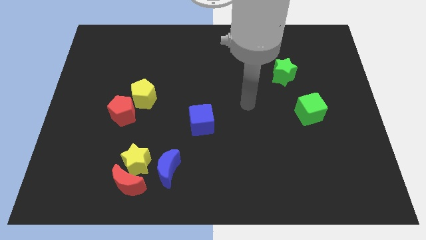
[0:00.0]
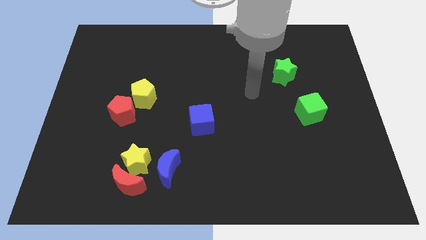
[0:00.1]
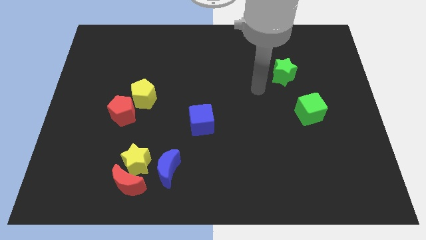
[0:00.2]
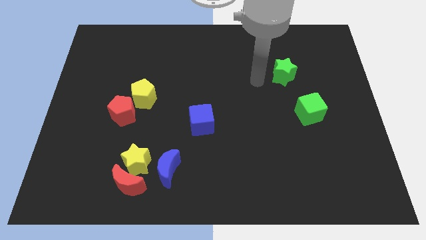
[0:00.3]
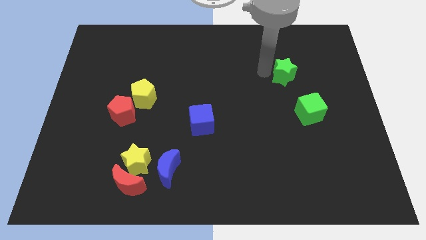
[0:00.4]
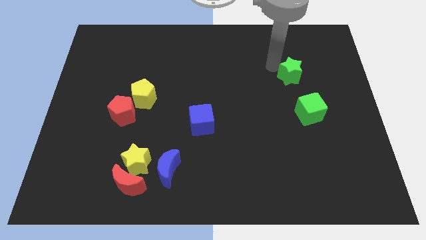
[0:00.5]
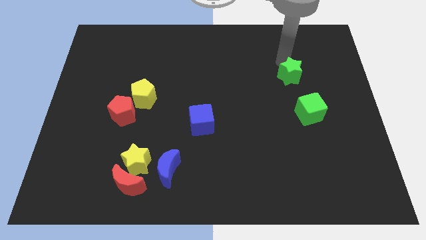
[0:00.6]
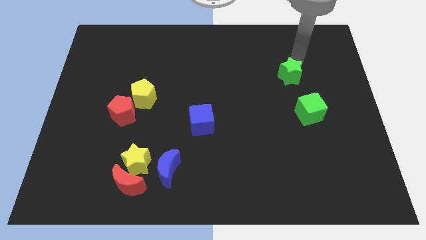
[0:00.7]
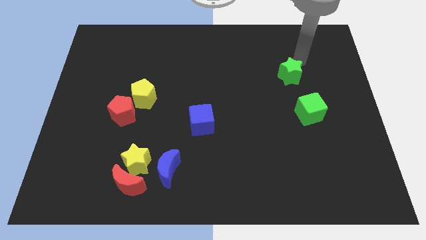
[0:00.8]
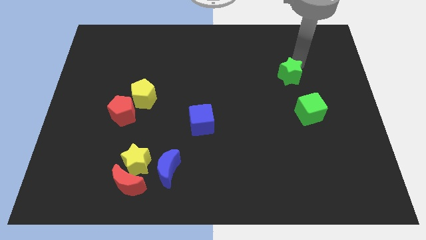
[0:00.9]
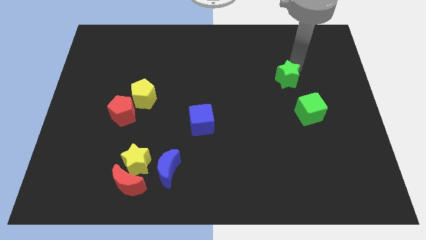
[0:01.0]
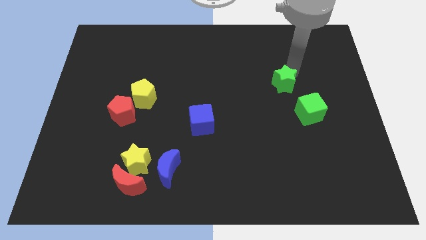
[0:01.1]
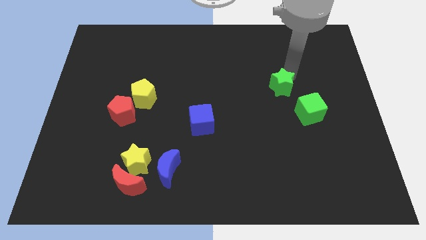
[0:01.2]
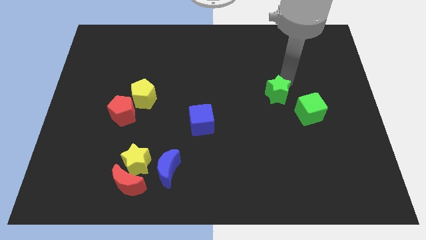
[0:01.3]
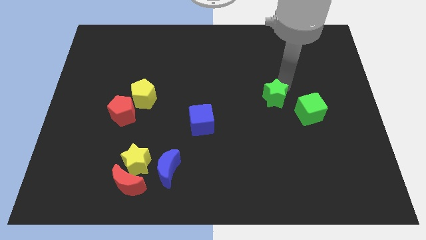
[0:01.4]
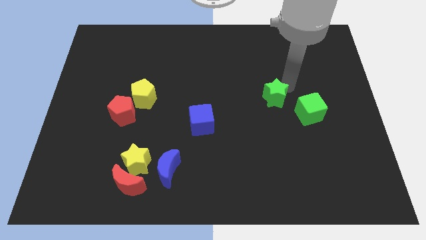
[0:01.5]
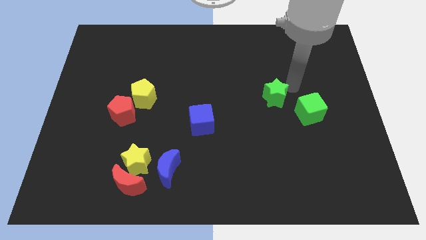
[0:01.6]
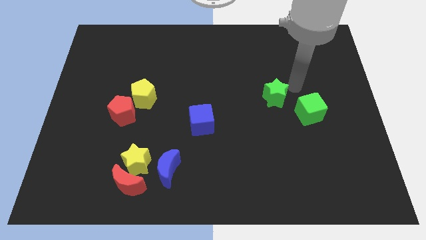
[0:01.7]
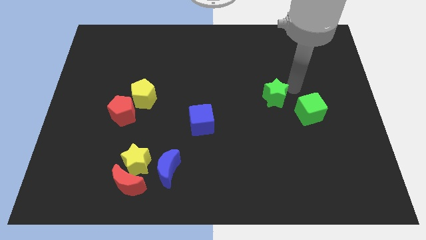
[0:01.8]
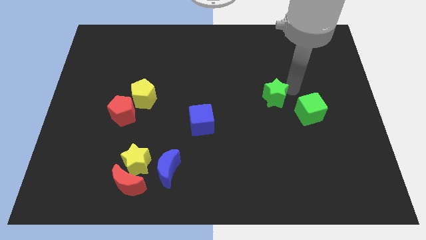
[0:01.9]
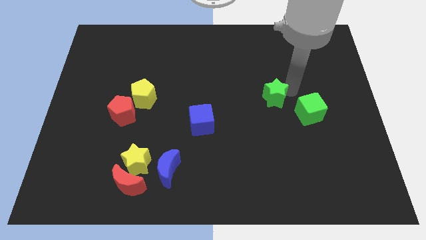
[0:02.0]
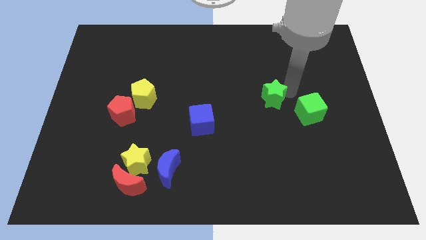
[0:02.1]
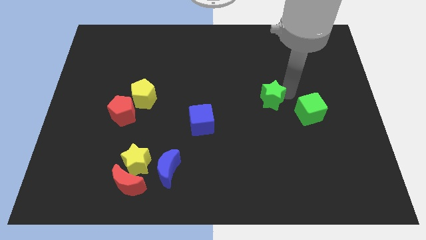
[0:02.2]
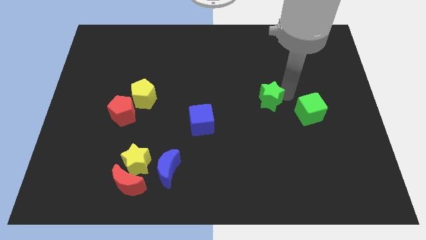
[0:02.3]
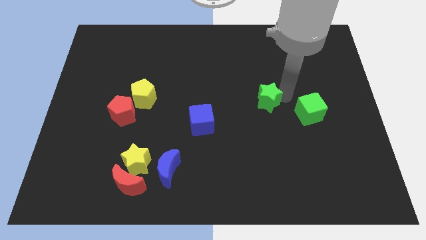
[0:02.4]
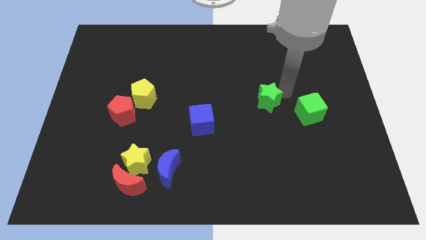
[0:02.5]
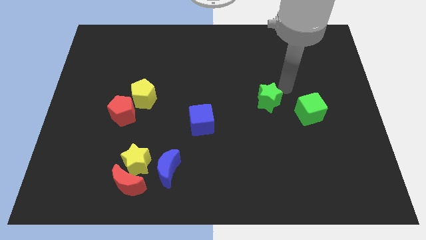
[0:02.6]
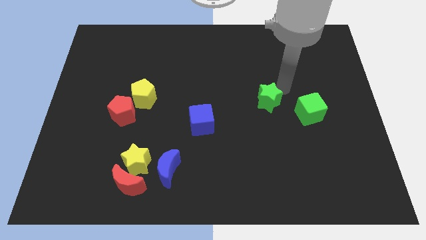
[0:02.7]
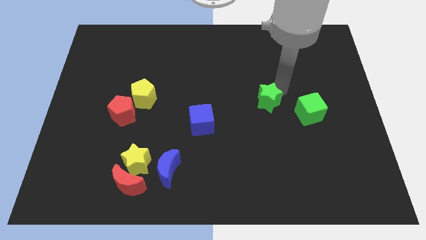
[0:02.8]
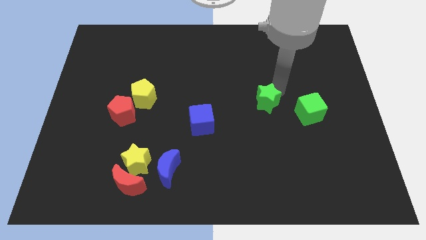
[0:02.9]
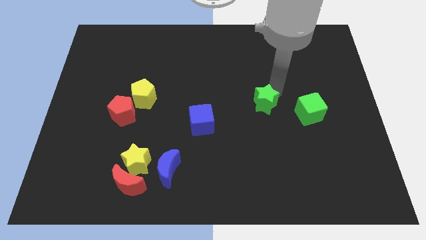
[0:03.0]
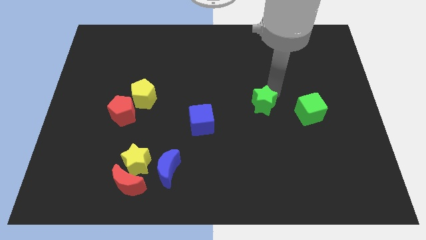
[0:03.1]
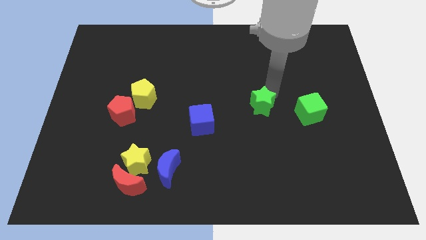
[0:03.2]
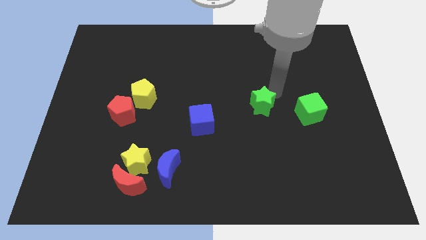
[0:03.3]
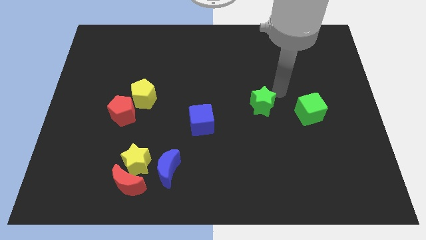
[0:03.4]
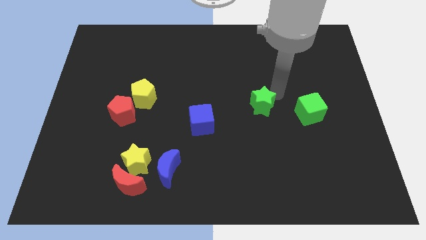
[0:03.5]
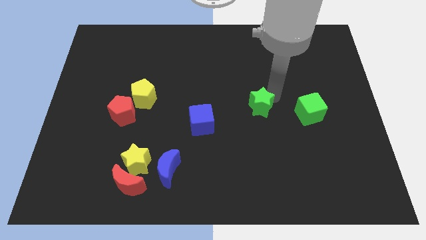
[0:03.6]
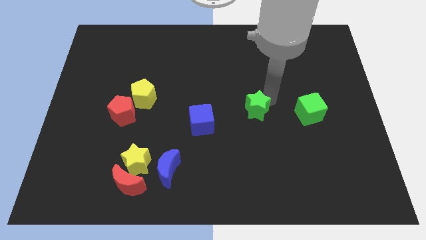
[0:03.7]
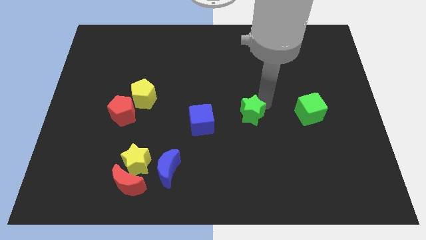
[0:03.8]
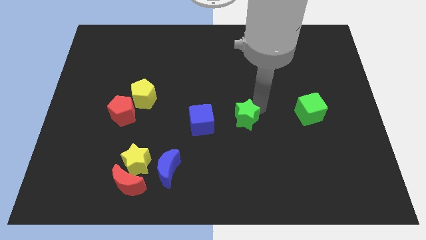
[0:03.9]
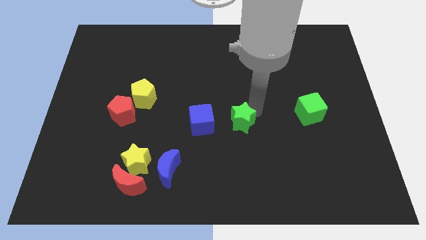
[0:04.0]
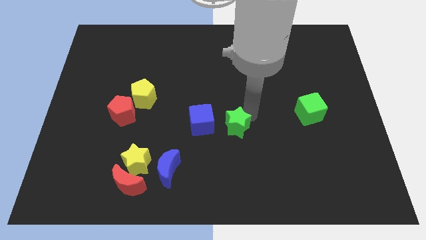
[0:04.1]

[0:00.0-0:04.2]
move the green star downwards and left

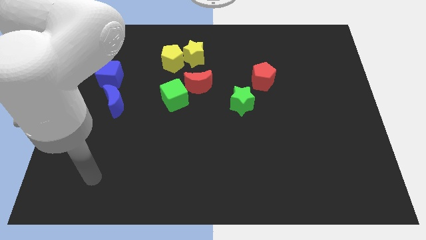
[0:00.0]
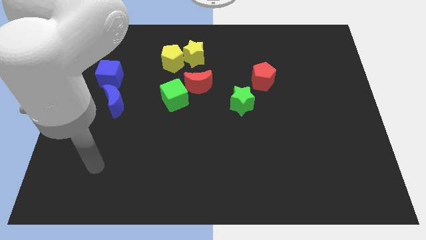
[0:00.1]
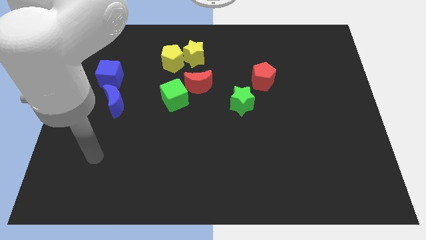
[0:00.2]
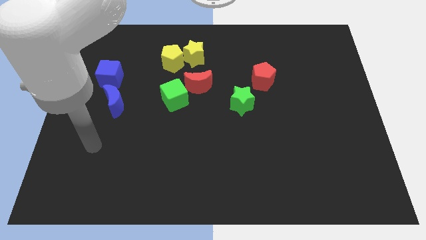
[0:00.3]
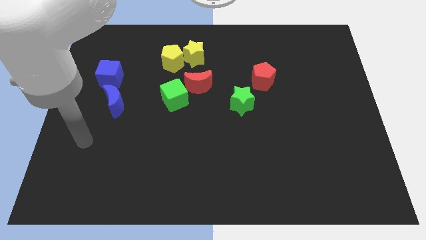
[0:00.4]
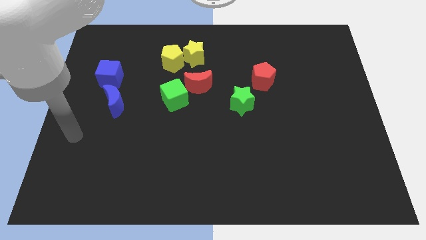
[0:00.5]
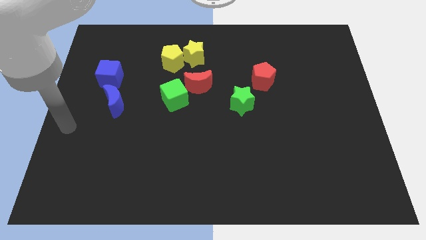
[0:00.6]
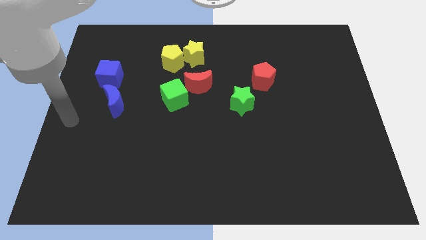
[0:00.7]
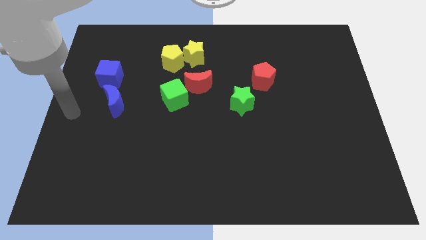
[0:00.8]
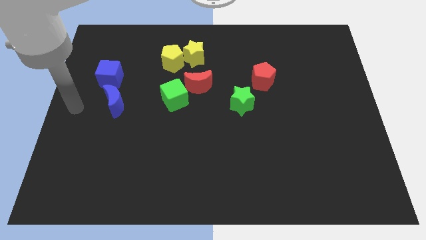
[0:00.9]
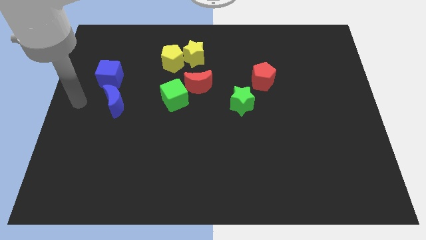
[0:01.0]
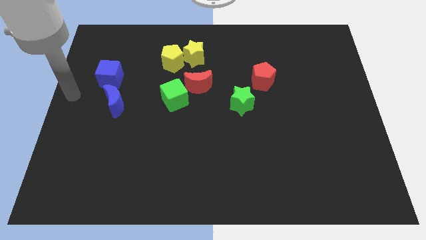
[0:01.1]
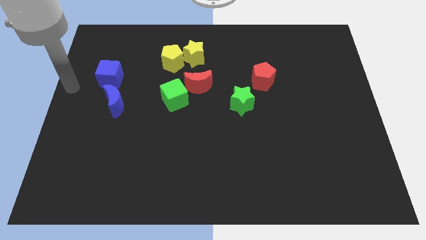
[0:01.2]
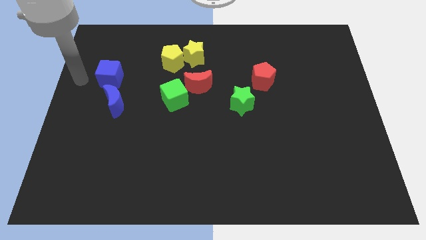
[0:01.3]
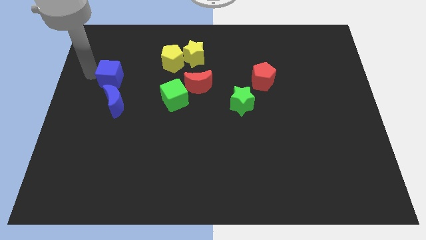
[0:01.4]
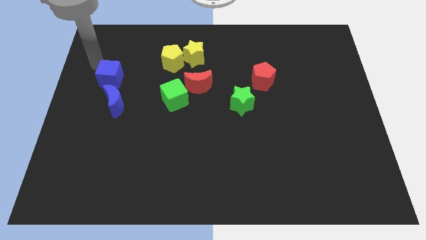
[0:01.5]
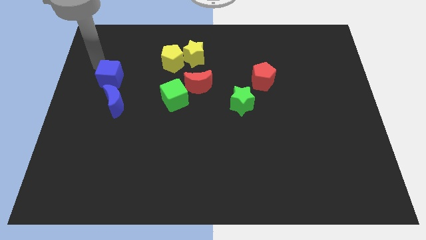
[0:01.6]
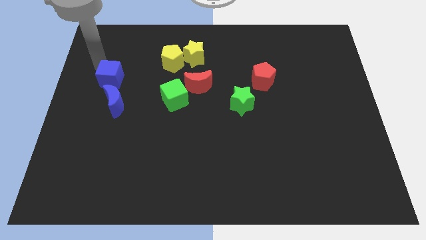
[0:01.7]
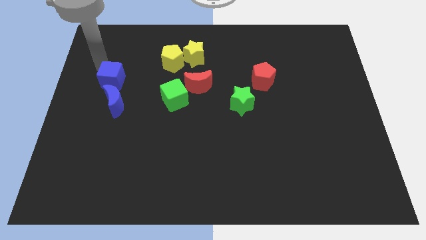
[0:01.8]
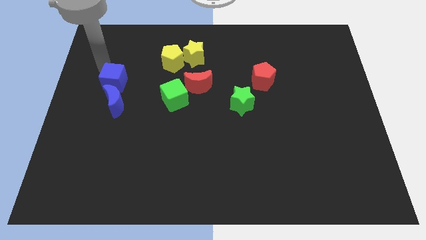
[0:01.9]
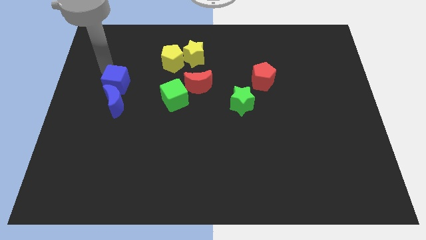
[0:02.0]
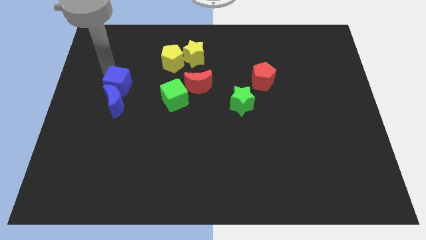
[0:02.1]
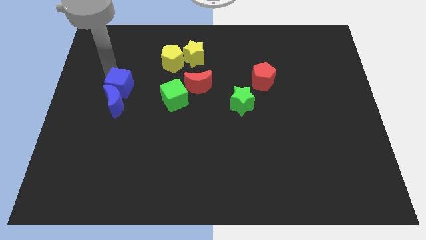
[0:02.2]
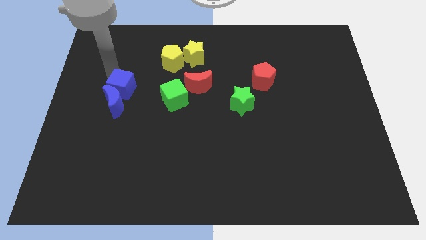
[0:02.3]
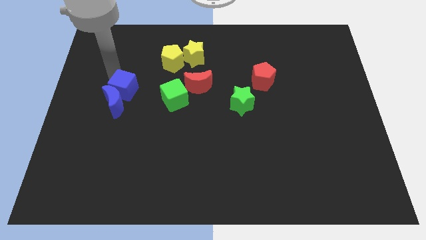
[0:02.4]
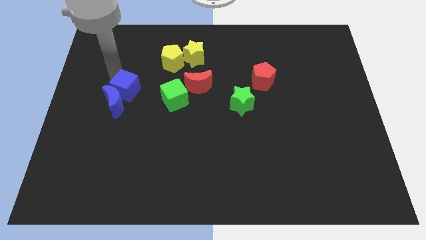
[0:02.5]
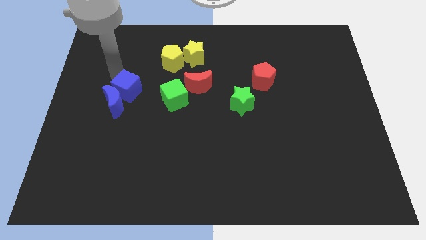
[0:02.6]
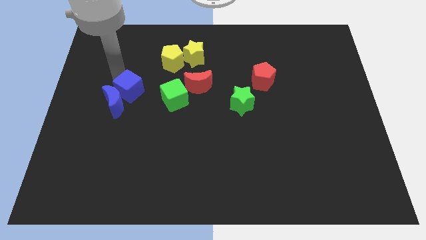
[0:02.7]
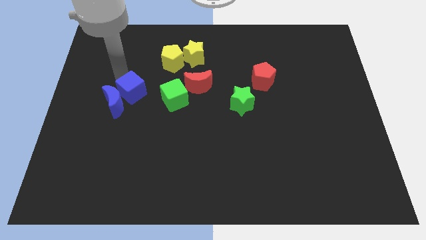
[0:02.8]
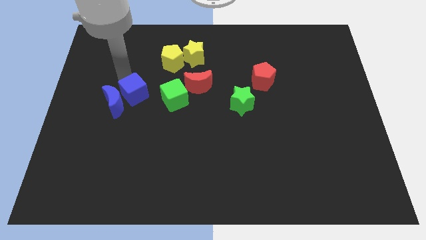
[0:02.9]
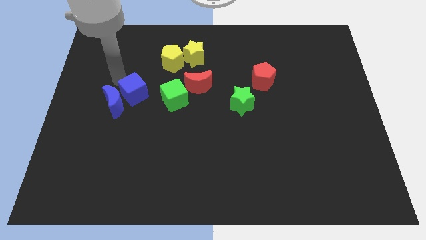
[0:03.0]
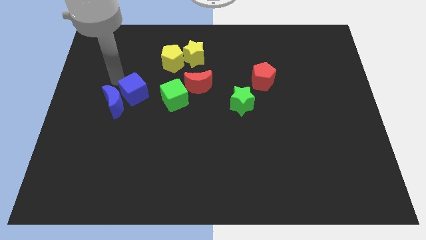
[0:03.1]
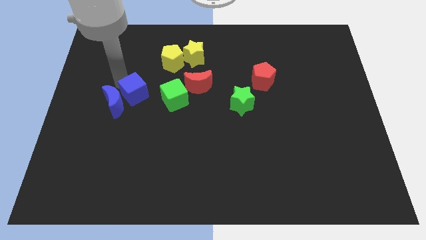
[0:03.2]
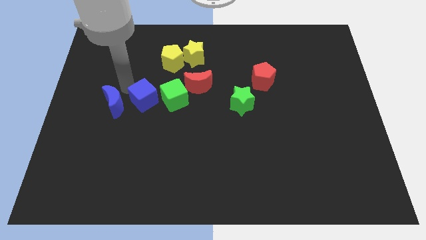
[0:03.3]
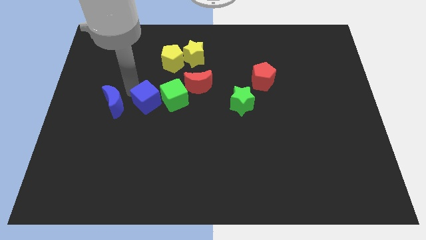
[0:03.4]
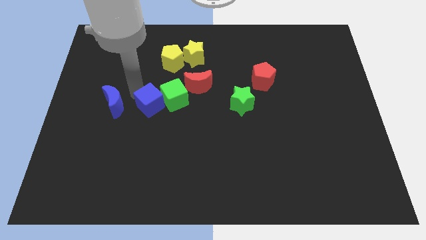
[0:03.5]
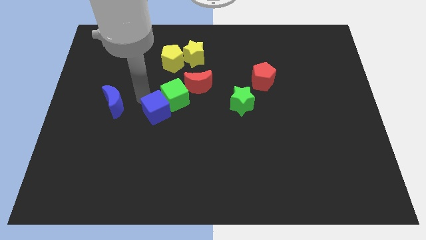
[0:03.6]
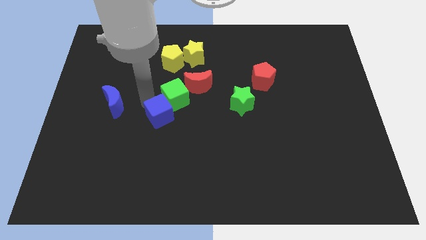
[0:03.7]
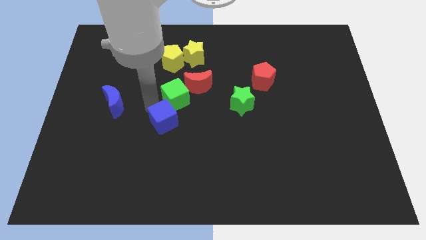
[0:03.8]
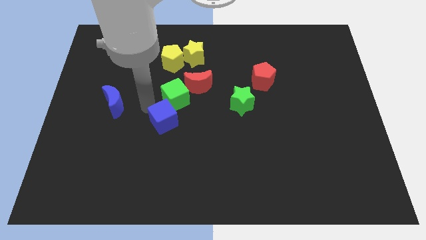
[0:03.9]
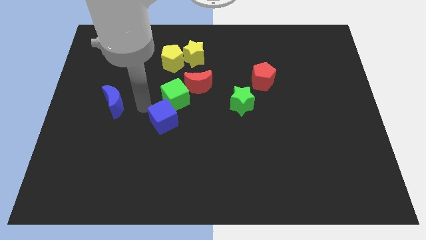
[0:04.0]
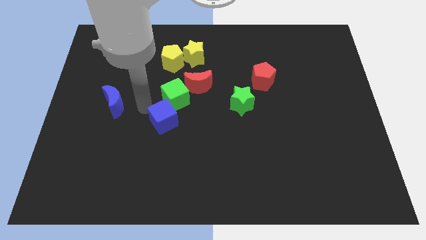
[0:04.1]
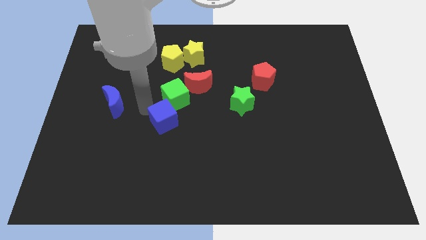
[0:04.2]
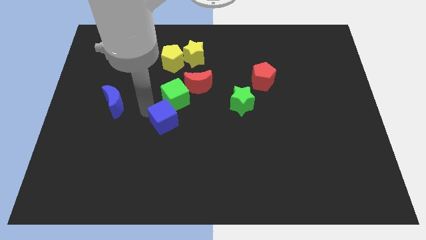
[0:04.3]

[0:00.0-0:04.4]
move the blue cube downwards and to the right diagonally
